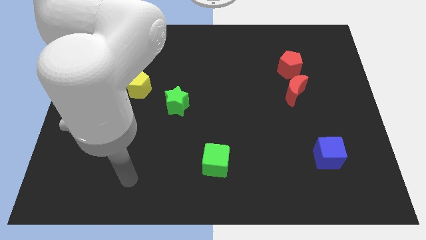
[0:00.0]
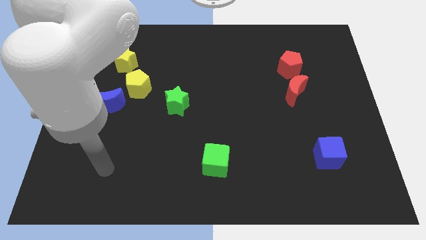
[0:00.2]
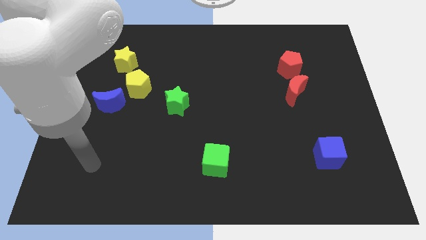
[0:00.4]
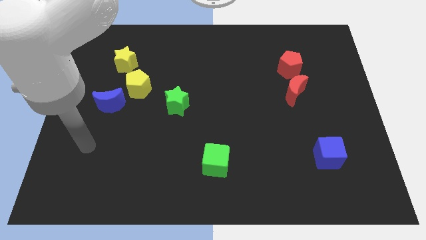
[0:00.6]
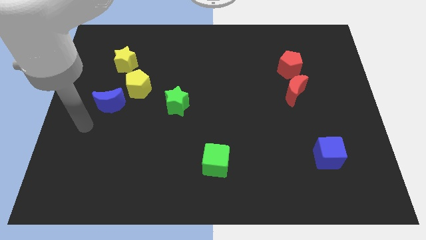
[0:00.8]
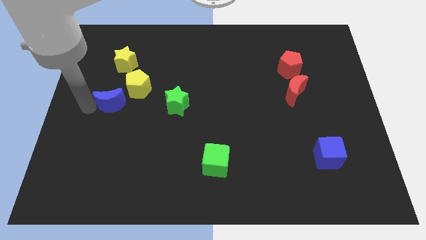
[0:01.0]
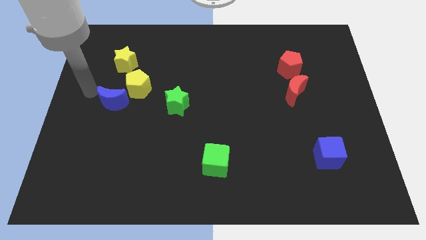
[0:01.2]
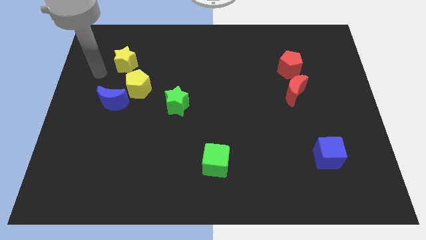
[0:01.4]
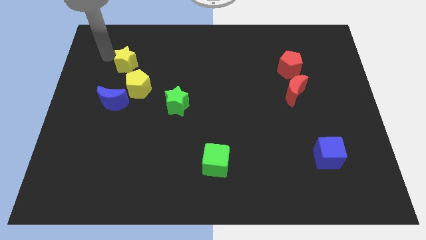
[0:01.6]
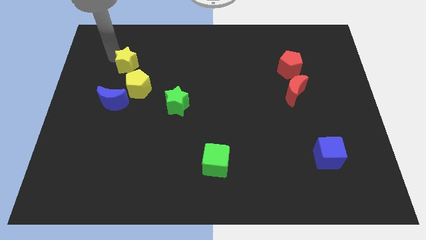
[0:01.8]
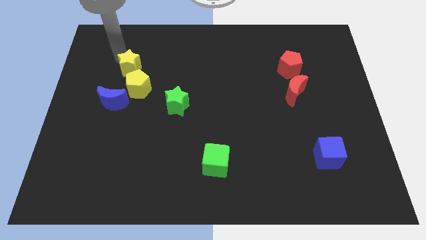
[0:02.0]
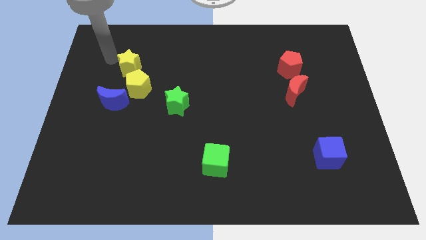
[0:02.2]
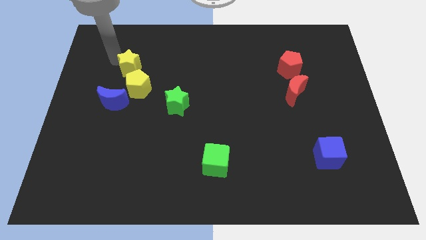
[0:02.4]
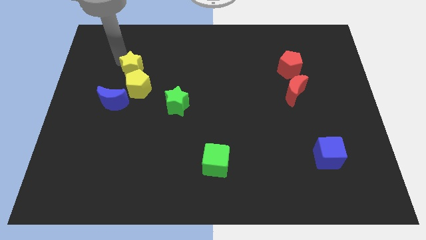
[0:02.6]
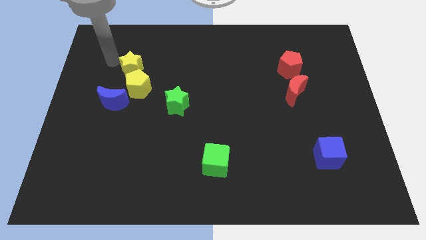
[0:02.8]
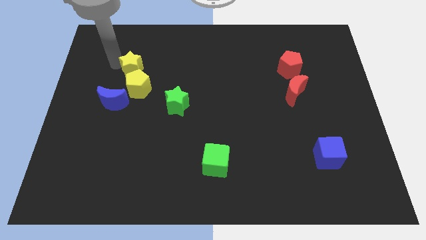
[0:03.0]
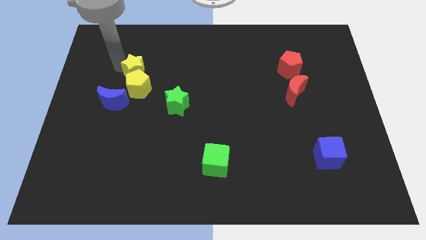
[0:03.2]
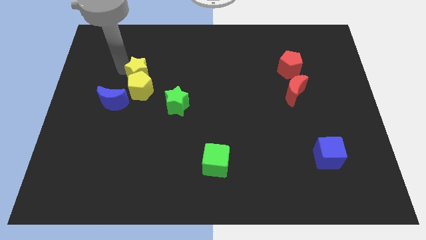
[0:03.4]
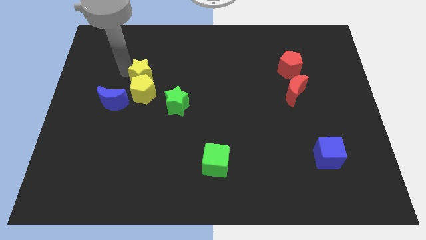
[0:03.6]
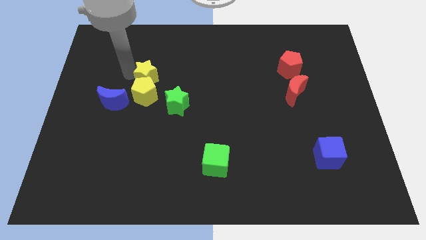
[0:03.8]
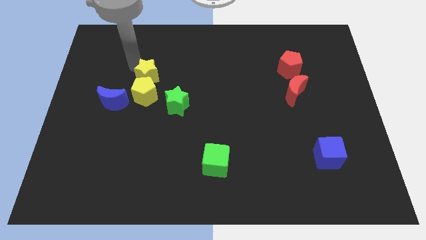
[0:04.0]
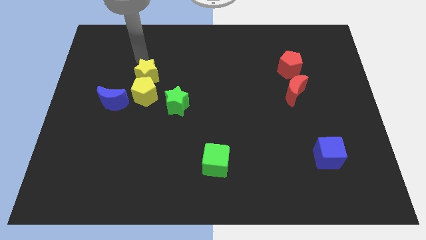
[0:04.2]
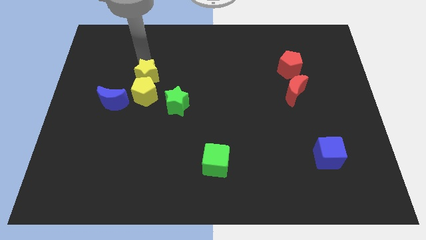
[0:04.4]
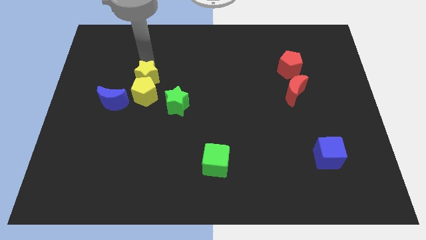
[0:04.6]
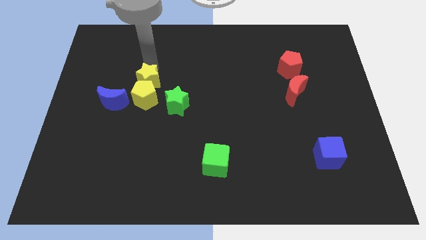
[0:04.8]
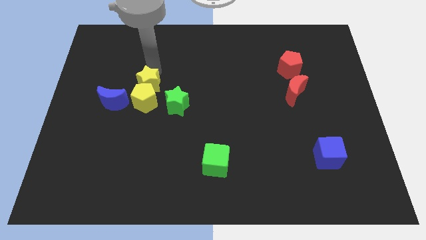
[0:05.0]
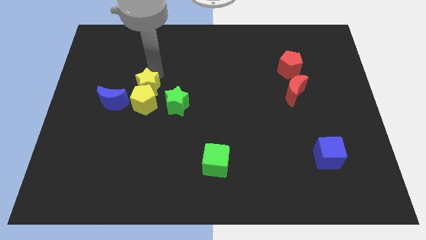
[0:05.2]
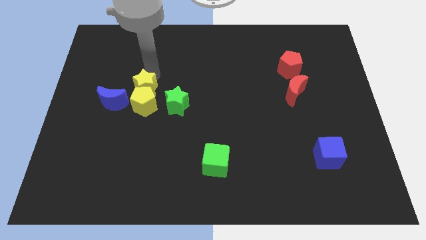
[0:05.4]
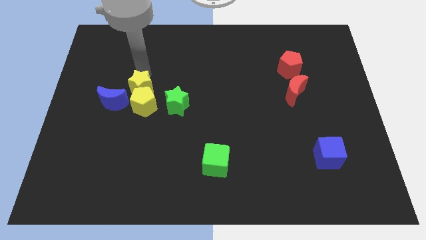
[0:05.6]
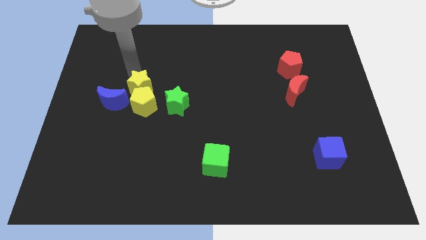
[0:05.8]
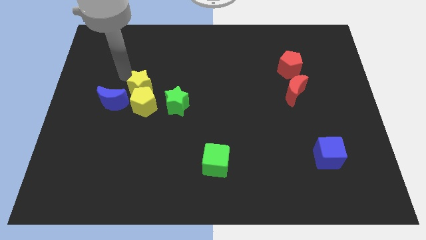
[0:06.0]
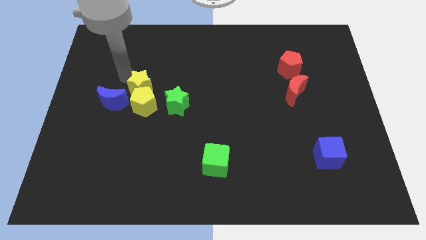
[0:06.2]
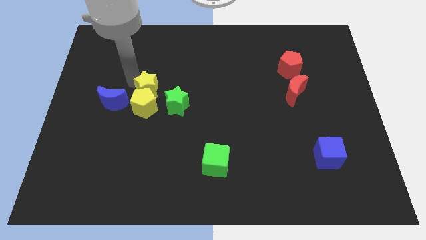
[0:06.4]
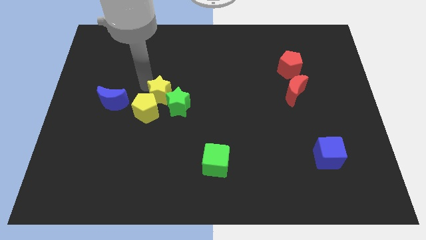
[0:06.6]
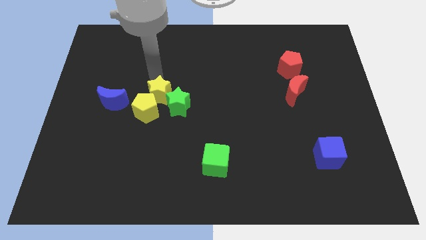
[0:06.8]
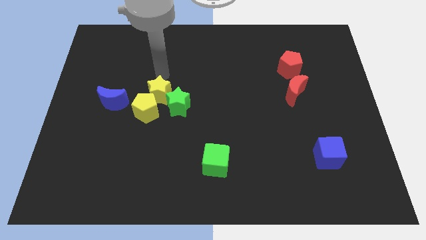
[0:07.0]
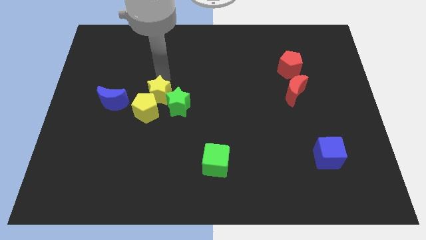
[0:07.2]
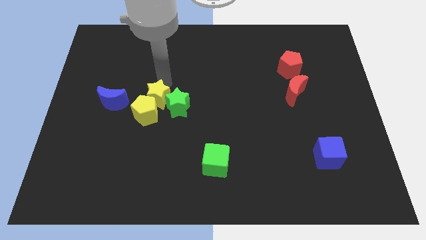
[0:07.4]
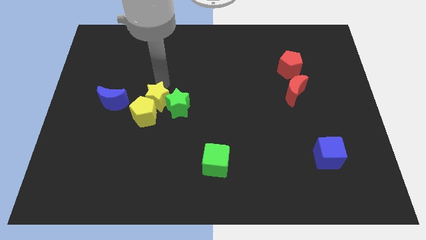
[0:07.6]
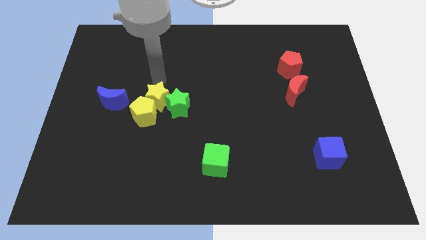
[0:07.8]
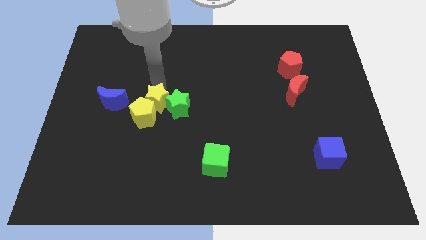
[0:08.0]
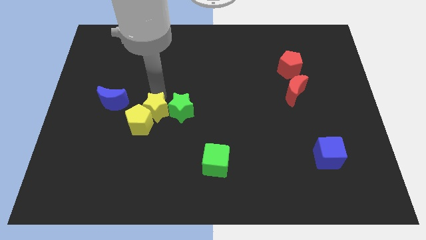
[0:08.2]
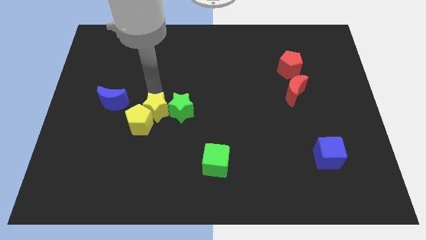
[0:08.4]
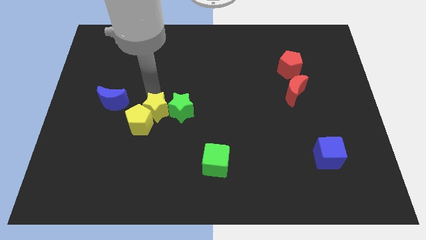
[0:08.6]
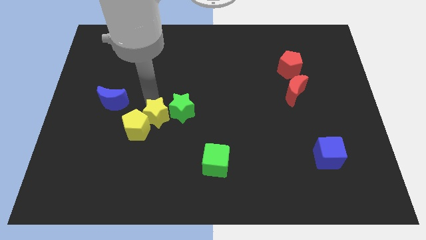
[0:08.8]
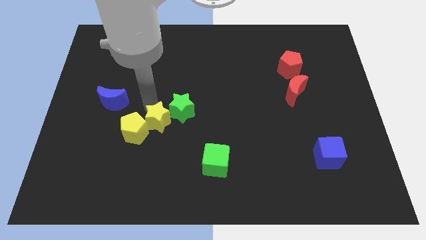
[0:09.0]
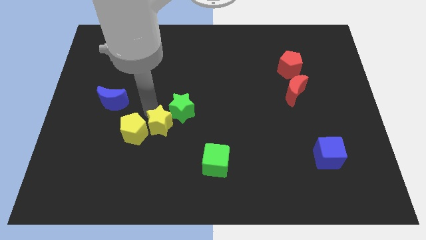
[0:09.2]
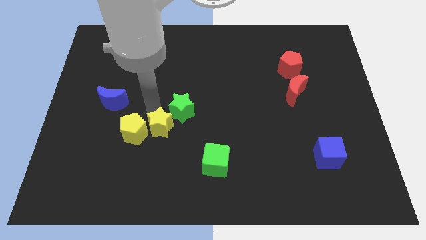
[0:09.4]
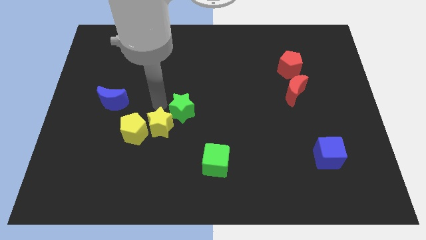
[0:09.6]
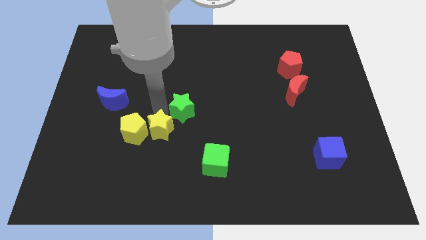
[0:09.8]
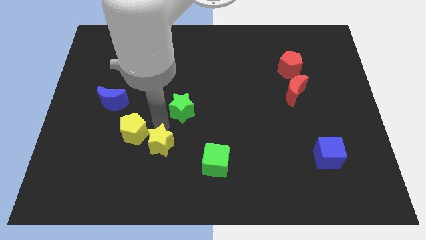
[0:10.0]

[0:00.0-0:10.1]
slide the yellow star to the left side of the green cube

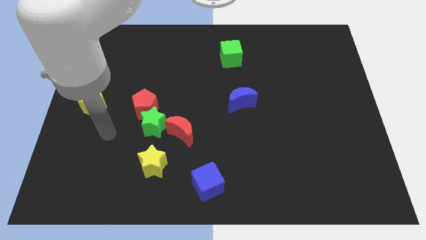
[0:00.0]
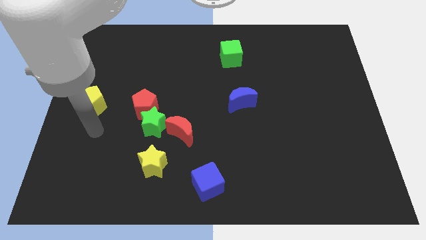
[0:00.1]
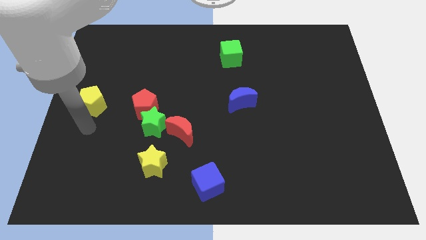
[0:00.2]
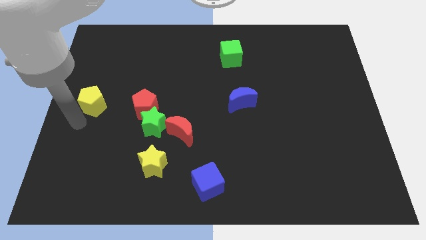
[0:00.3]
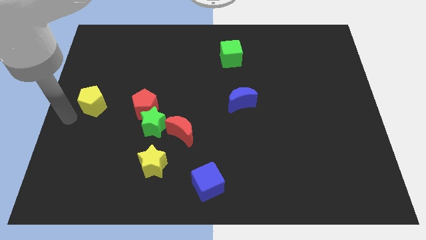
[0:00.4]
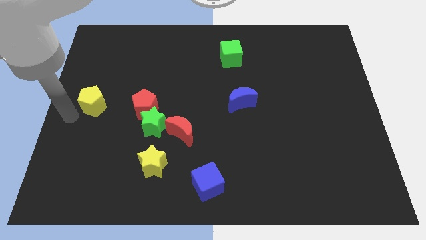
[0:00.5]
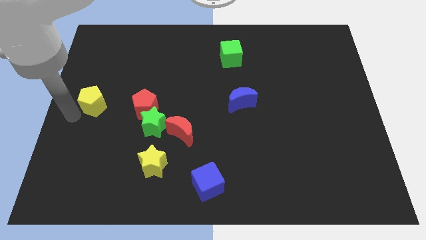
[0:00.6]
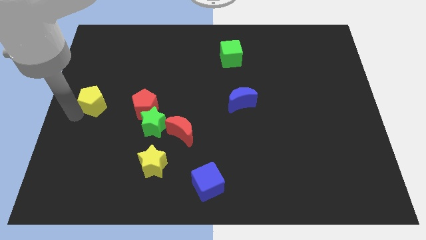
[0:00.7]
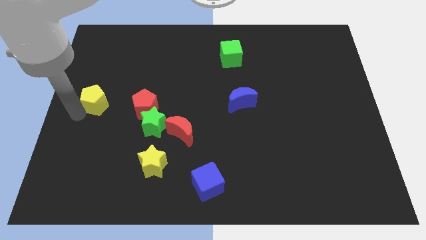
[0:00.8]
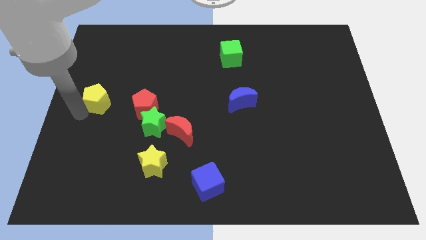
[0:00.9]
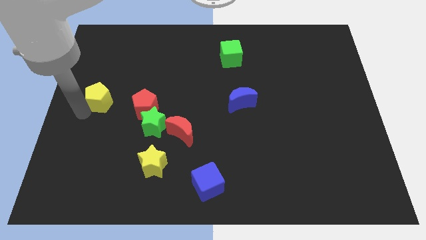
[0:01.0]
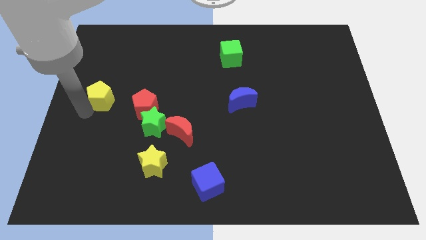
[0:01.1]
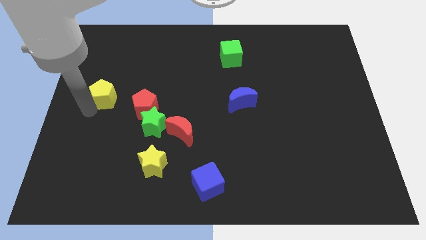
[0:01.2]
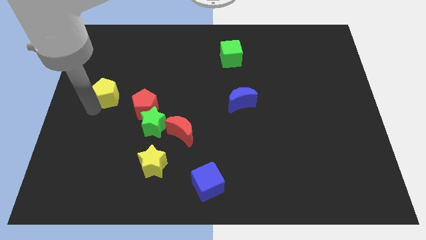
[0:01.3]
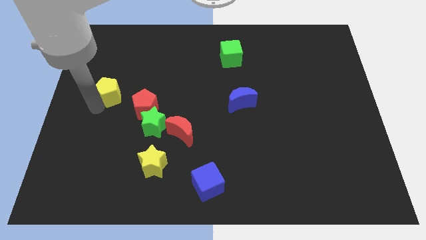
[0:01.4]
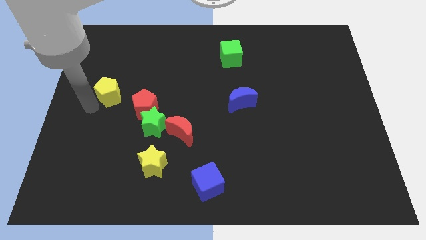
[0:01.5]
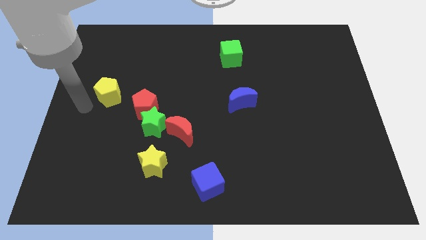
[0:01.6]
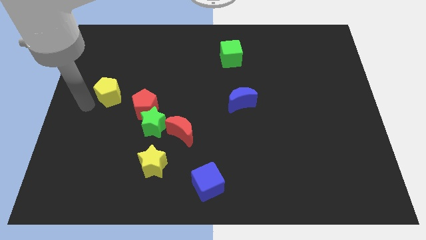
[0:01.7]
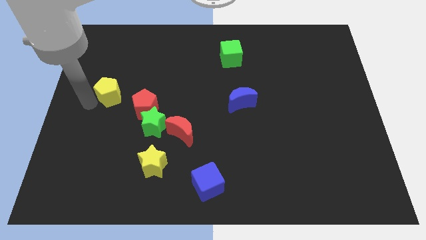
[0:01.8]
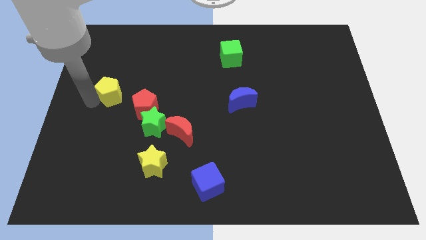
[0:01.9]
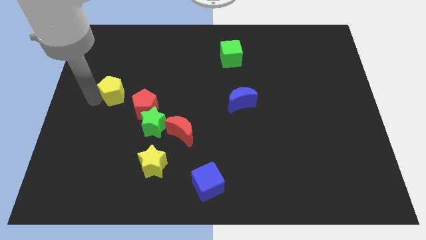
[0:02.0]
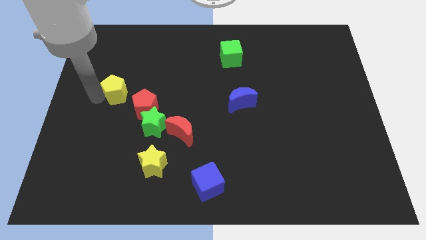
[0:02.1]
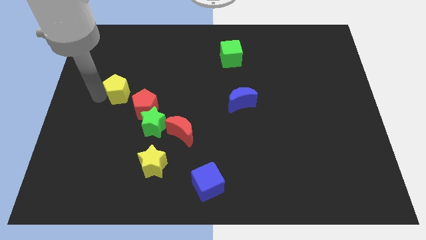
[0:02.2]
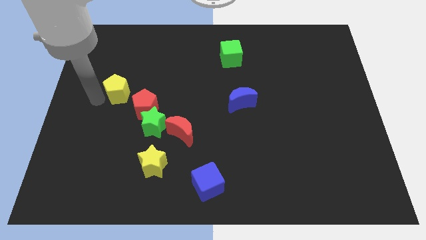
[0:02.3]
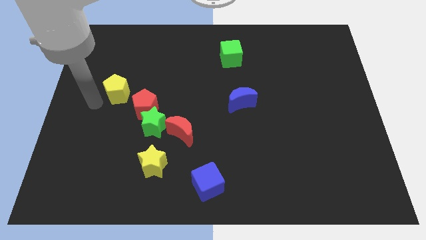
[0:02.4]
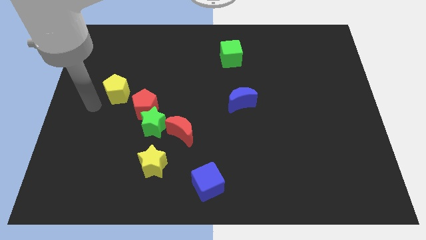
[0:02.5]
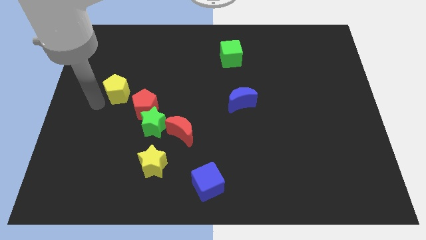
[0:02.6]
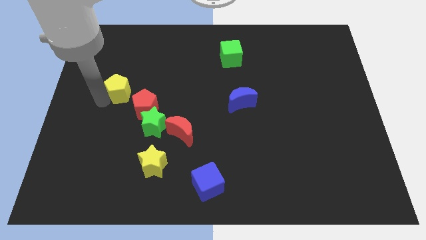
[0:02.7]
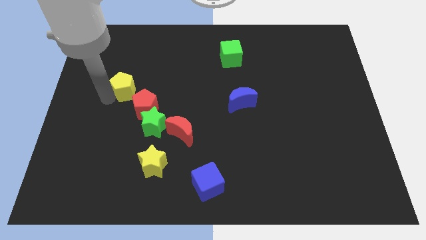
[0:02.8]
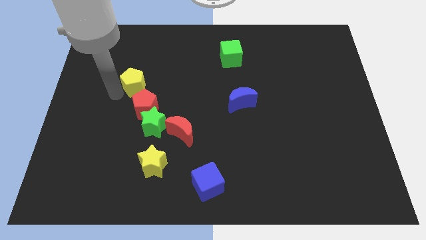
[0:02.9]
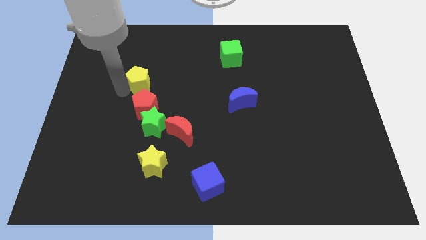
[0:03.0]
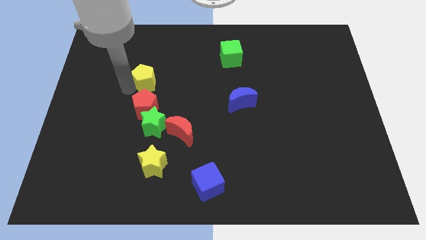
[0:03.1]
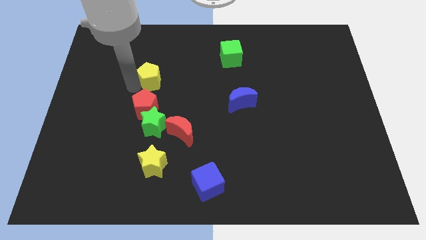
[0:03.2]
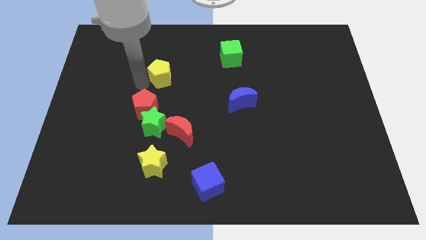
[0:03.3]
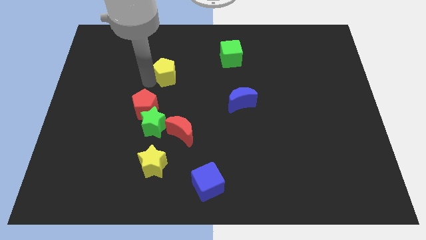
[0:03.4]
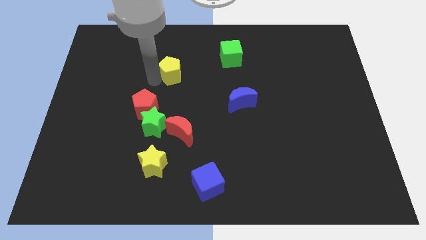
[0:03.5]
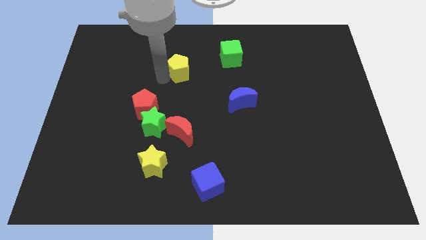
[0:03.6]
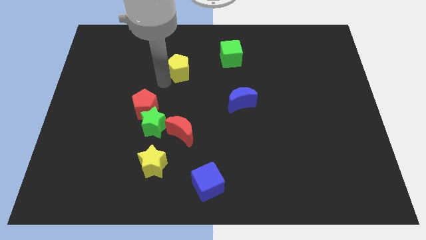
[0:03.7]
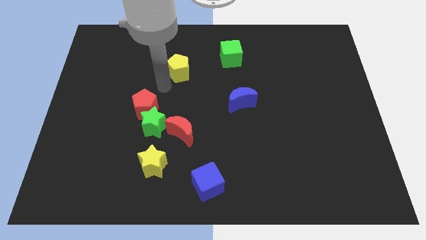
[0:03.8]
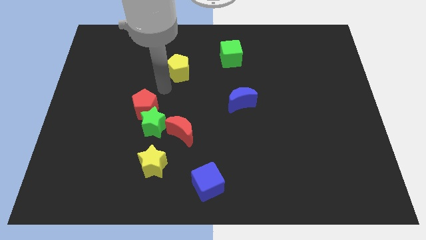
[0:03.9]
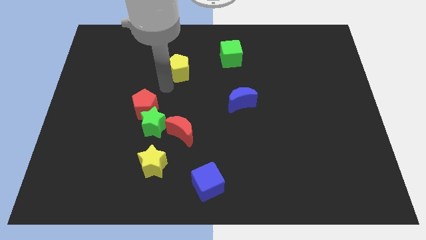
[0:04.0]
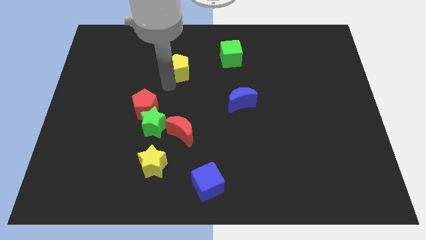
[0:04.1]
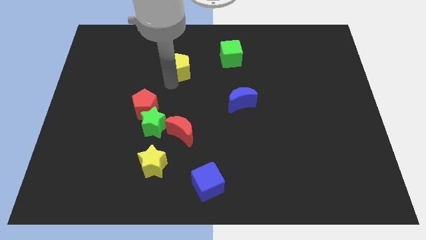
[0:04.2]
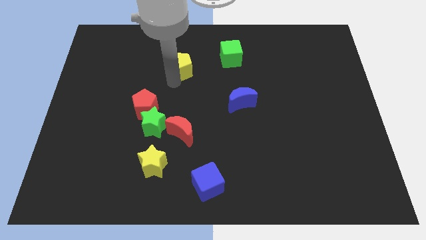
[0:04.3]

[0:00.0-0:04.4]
put the yellow pentagon to the left side of the green cube
